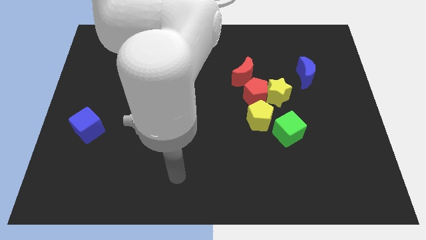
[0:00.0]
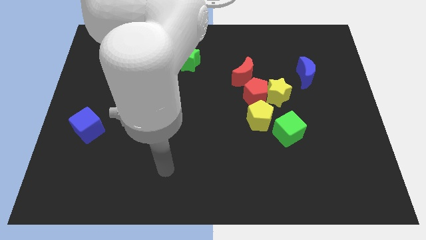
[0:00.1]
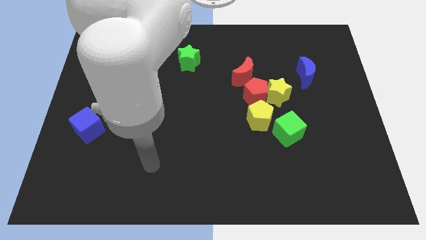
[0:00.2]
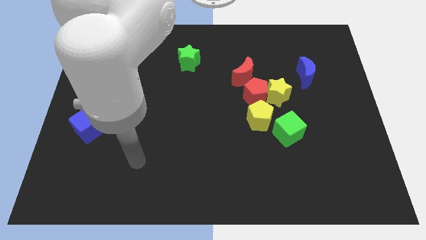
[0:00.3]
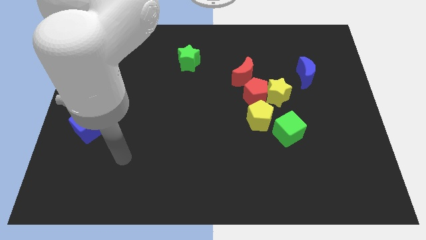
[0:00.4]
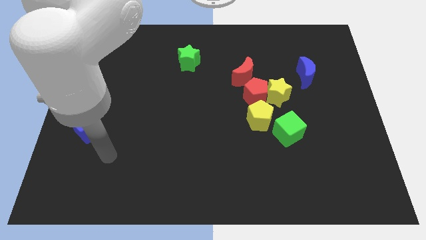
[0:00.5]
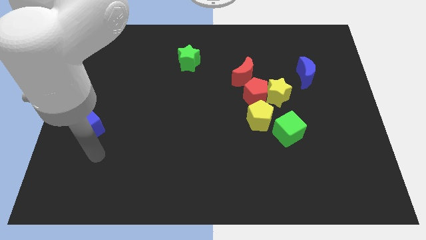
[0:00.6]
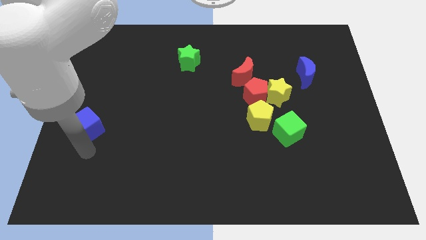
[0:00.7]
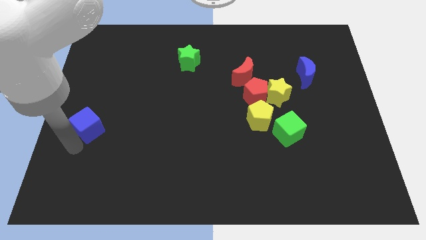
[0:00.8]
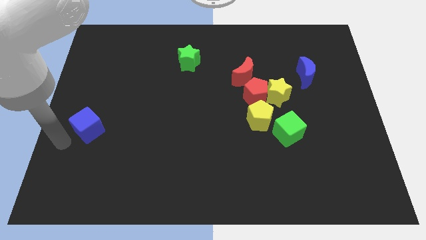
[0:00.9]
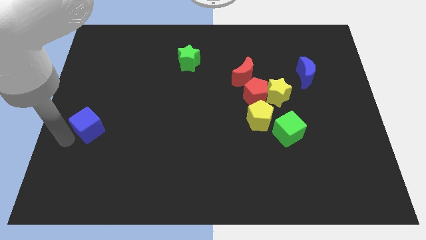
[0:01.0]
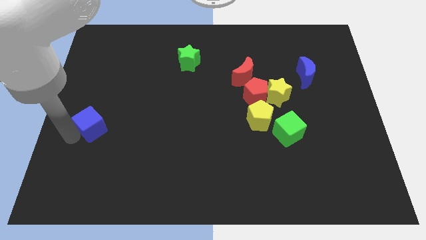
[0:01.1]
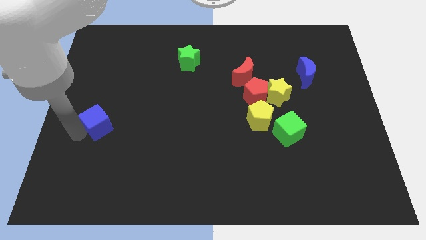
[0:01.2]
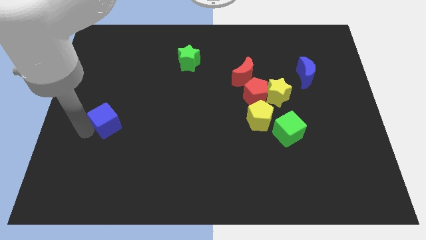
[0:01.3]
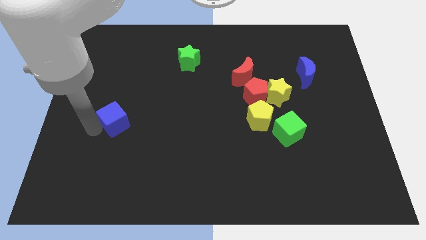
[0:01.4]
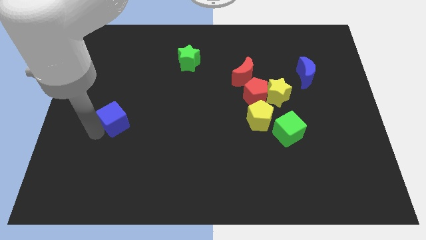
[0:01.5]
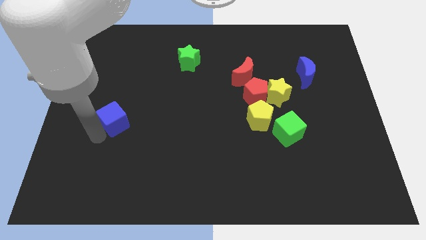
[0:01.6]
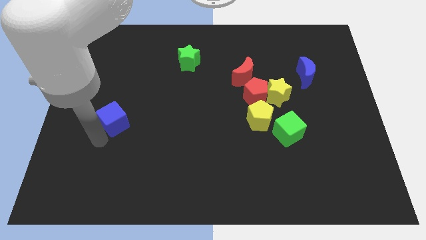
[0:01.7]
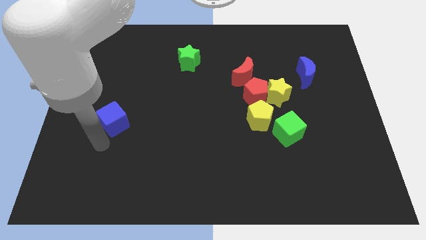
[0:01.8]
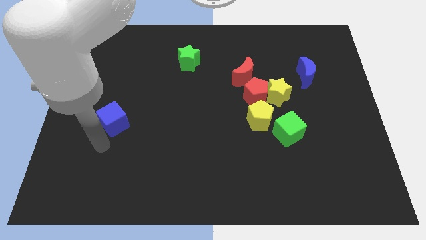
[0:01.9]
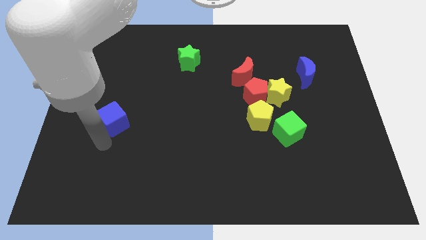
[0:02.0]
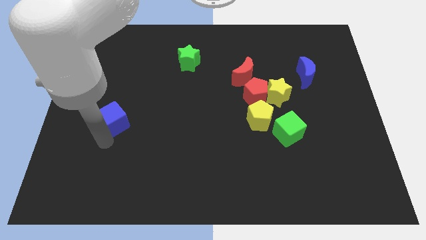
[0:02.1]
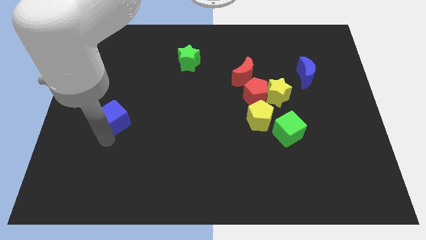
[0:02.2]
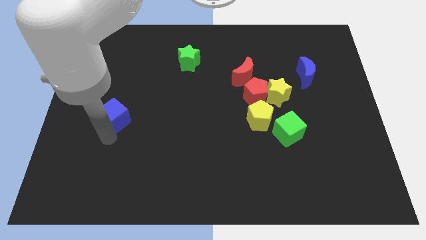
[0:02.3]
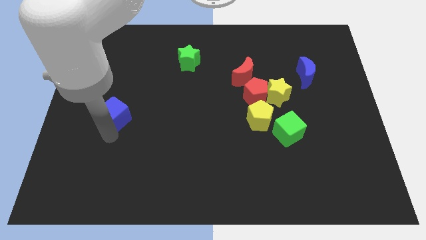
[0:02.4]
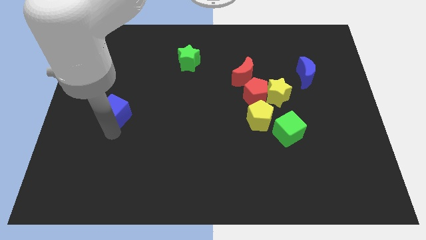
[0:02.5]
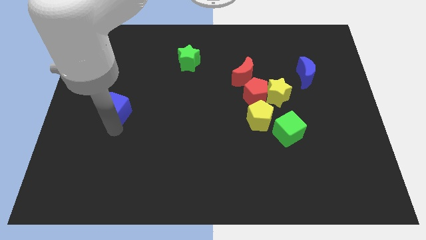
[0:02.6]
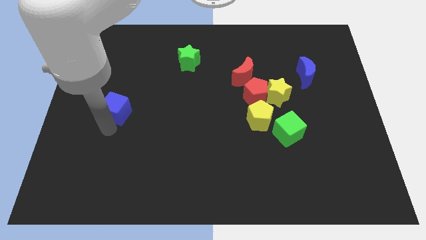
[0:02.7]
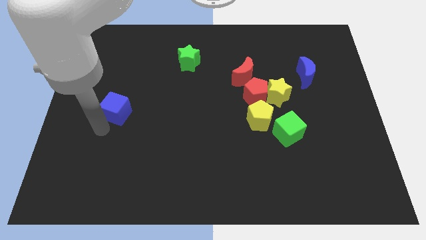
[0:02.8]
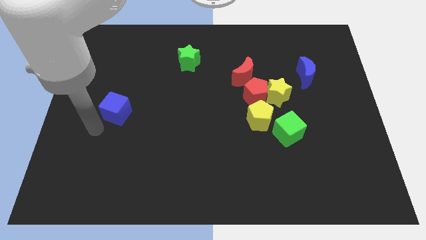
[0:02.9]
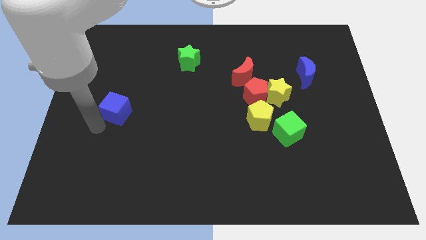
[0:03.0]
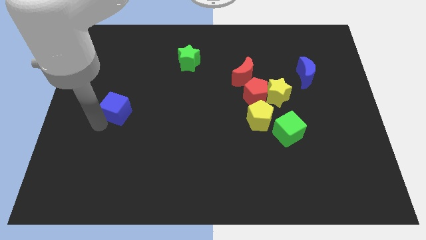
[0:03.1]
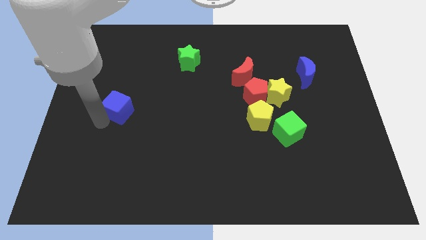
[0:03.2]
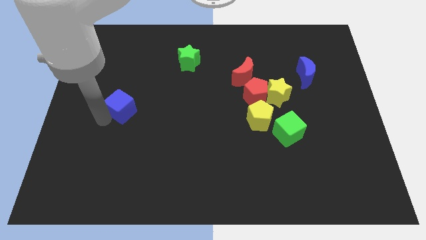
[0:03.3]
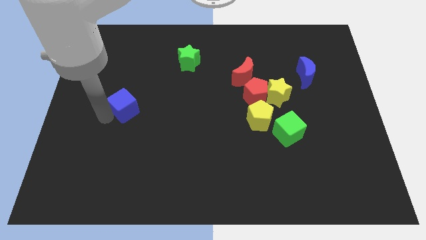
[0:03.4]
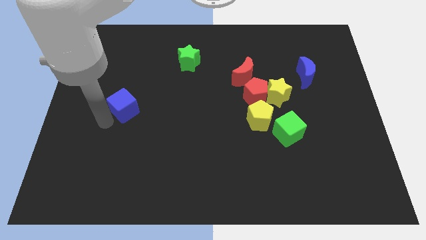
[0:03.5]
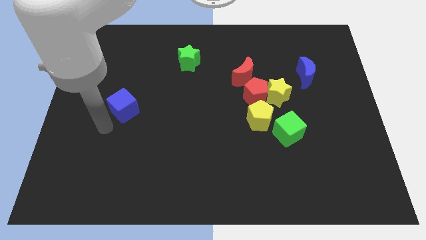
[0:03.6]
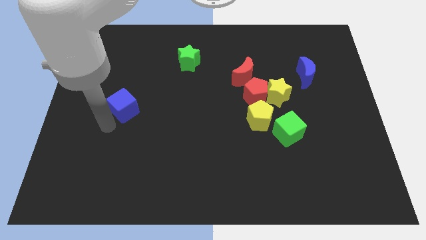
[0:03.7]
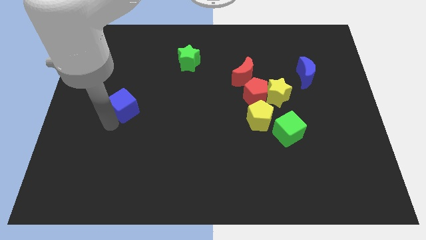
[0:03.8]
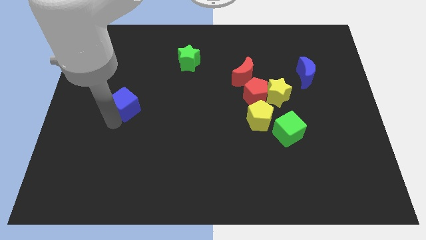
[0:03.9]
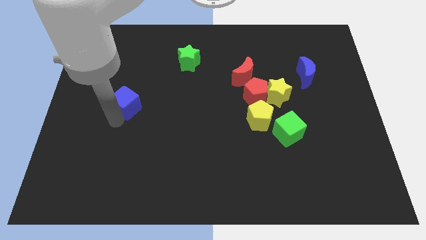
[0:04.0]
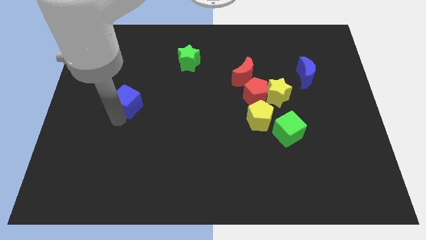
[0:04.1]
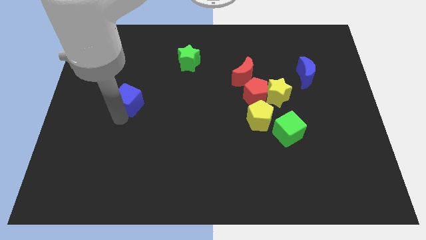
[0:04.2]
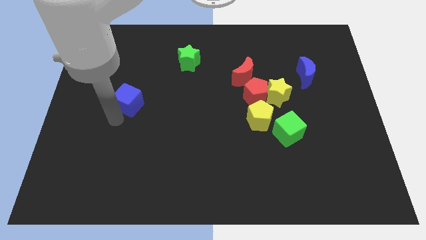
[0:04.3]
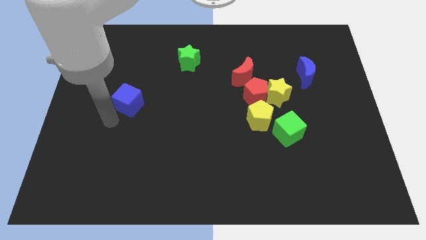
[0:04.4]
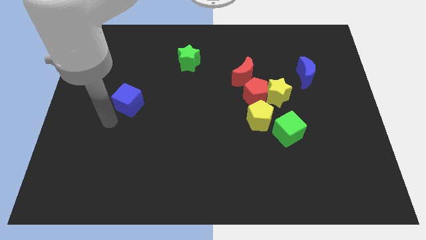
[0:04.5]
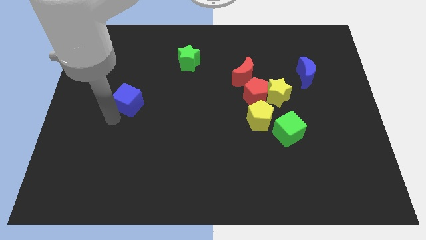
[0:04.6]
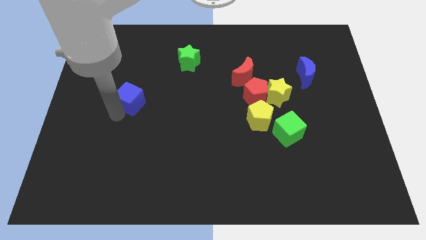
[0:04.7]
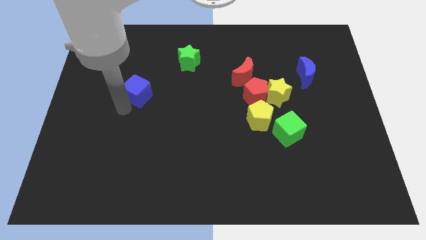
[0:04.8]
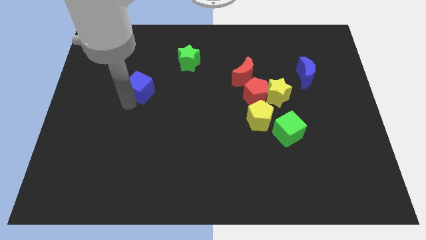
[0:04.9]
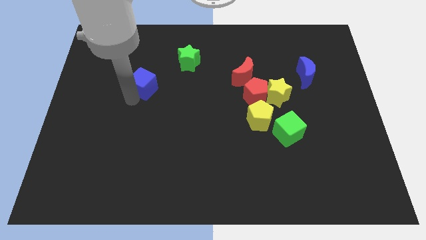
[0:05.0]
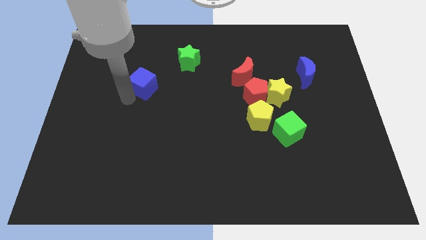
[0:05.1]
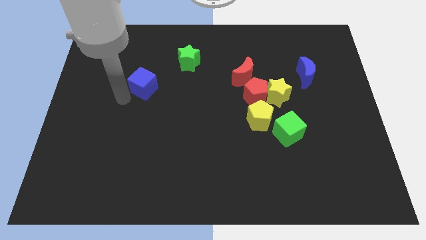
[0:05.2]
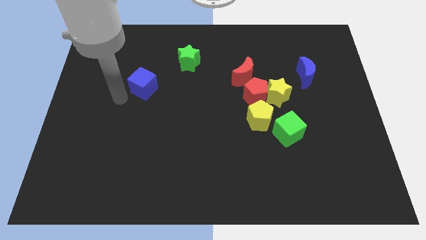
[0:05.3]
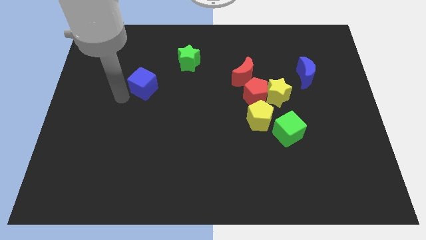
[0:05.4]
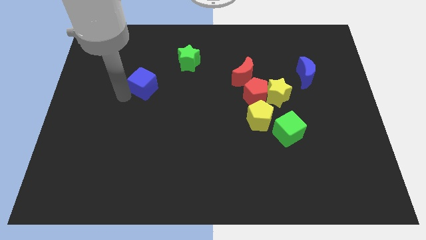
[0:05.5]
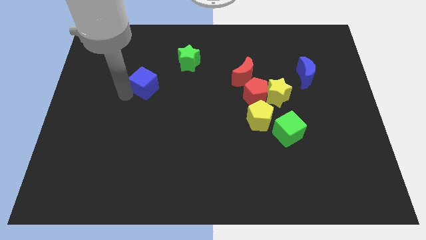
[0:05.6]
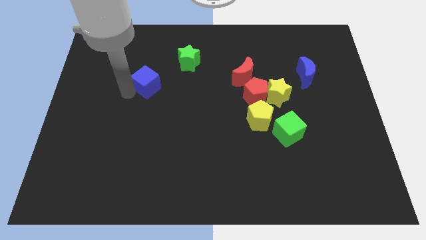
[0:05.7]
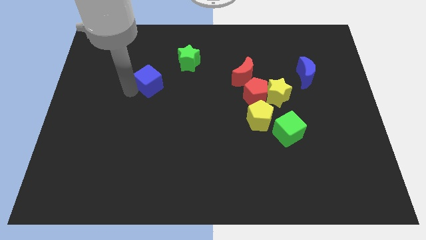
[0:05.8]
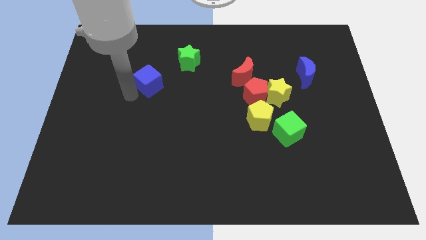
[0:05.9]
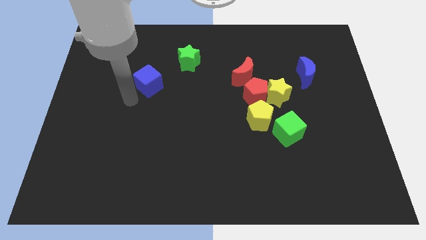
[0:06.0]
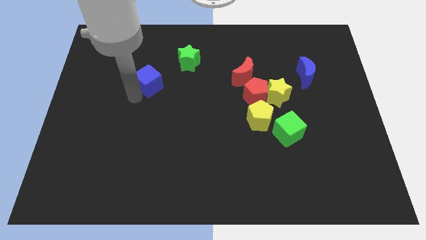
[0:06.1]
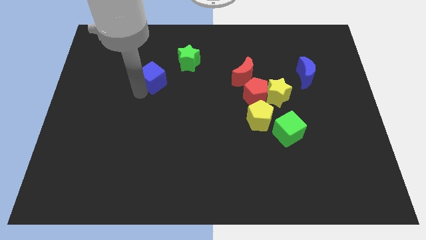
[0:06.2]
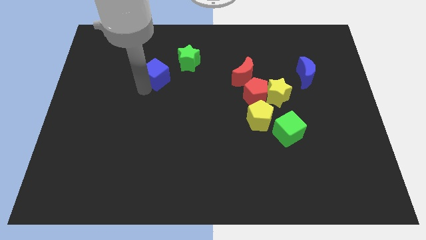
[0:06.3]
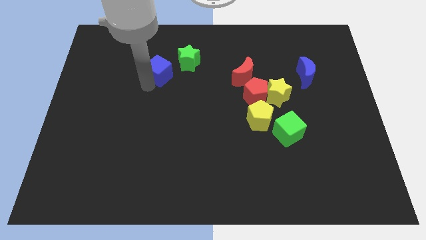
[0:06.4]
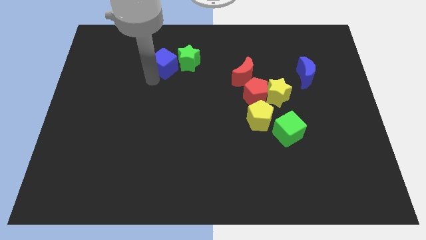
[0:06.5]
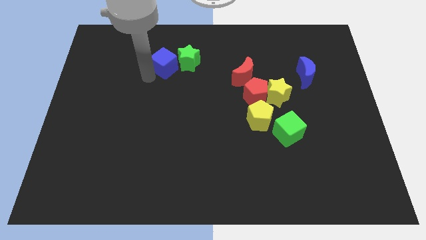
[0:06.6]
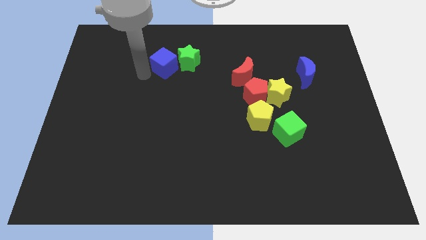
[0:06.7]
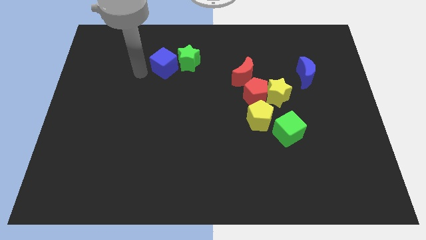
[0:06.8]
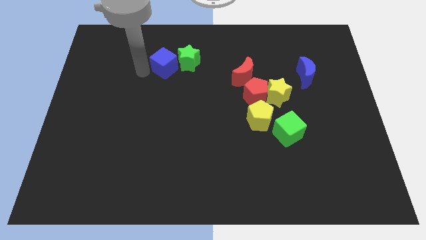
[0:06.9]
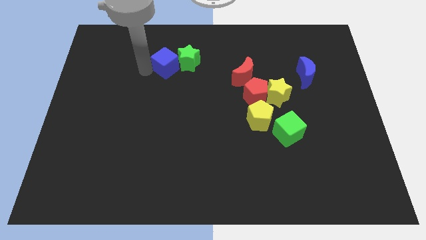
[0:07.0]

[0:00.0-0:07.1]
push the blue cube next to the green star

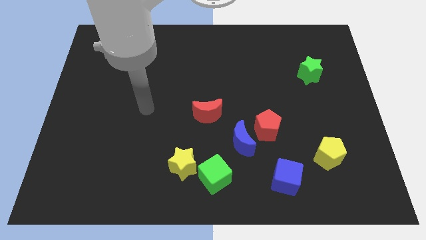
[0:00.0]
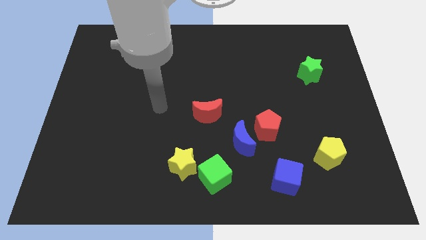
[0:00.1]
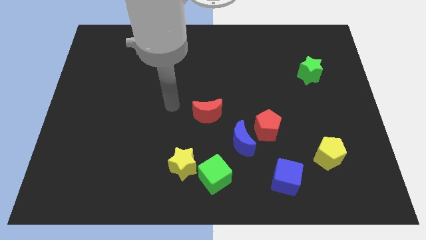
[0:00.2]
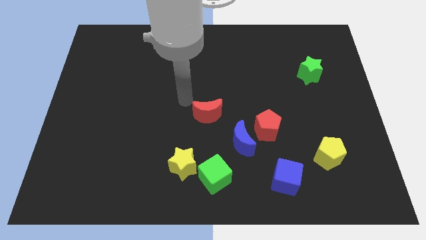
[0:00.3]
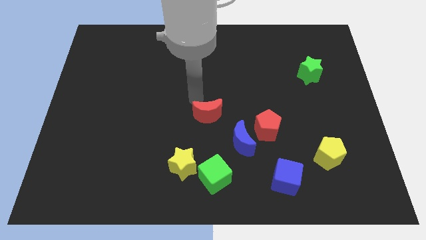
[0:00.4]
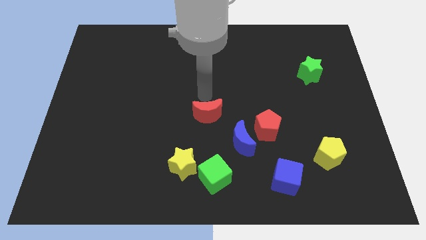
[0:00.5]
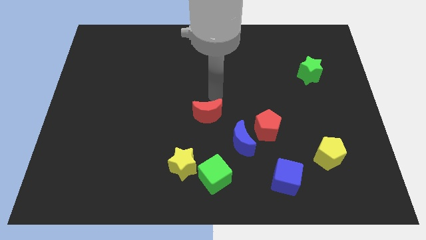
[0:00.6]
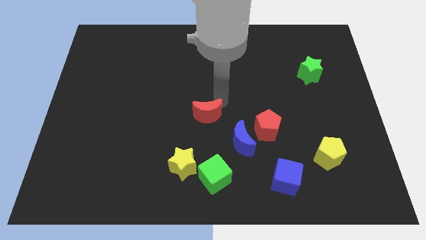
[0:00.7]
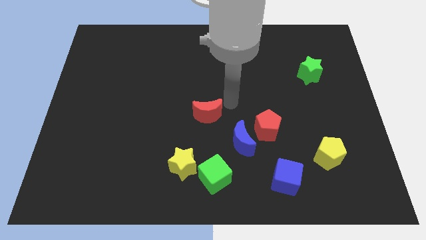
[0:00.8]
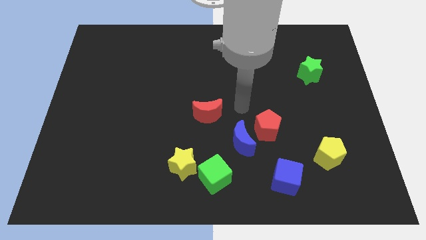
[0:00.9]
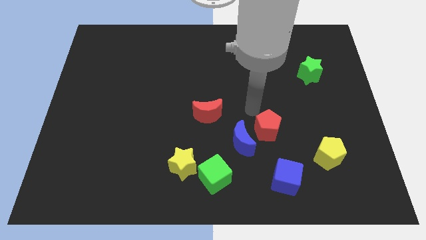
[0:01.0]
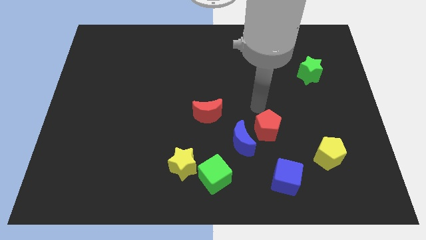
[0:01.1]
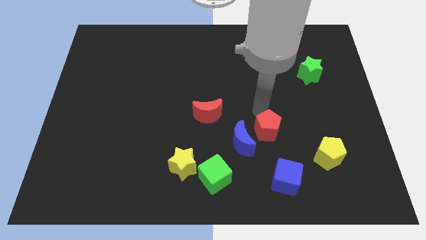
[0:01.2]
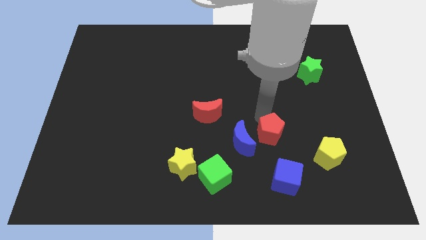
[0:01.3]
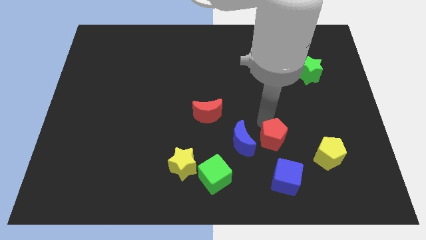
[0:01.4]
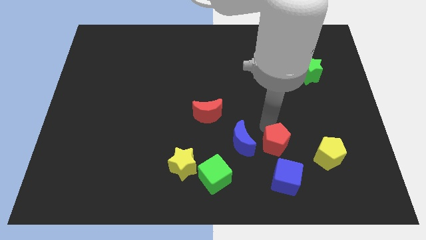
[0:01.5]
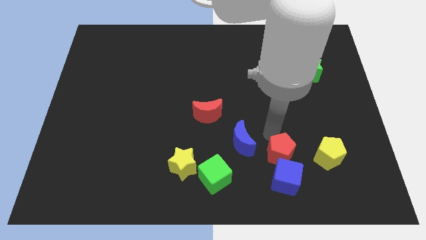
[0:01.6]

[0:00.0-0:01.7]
put the red pentagon close to the blue cube
